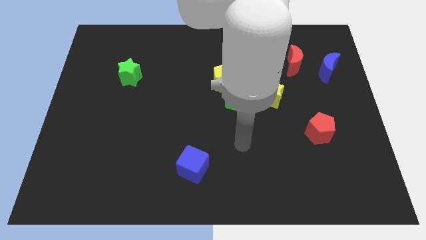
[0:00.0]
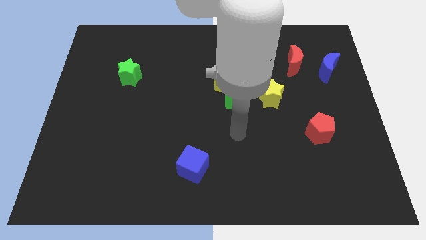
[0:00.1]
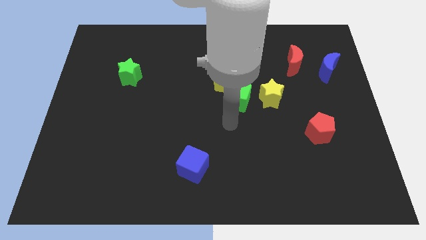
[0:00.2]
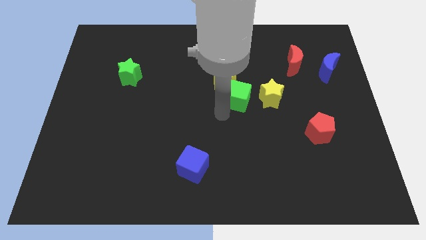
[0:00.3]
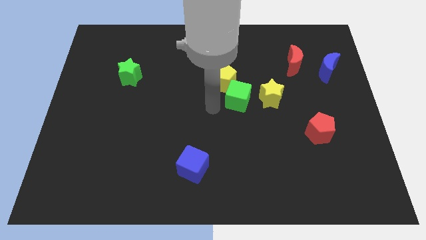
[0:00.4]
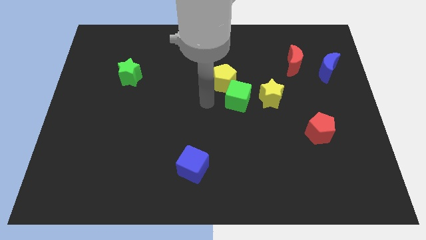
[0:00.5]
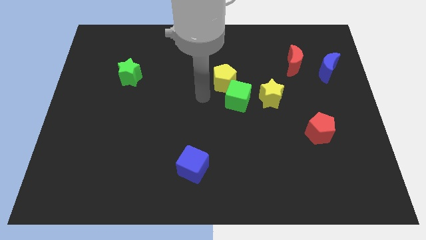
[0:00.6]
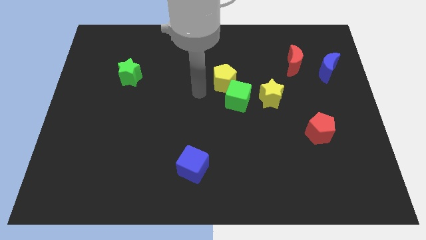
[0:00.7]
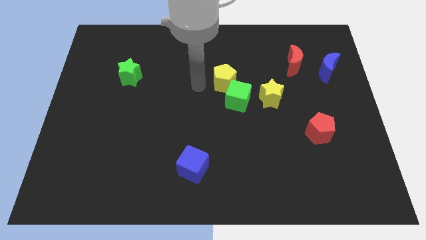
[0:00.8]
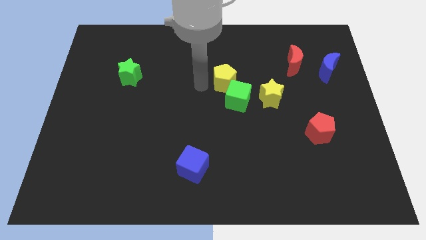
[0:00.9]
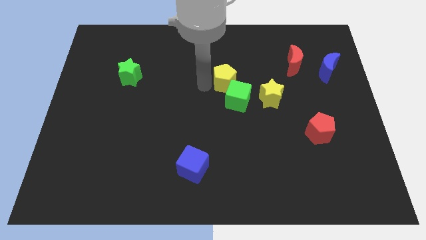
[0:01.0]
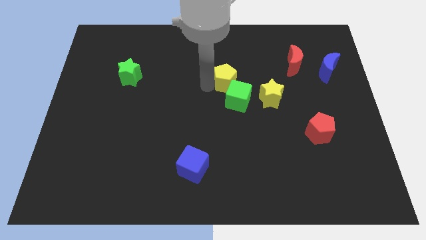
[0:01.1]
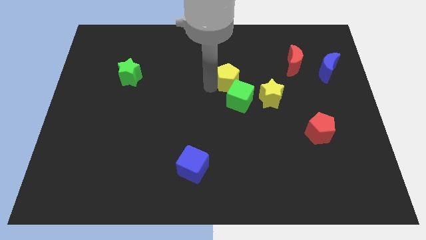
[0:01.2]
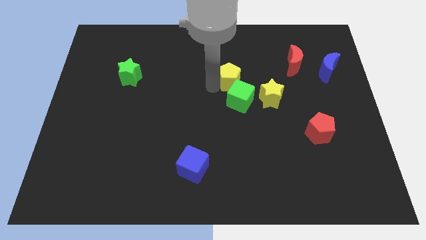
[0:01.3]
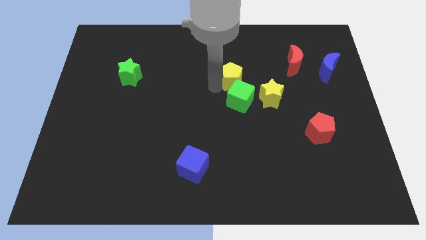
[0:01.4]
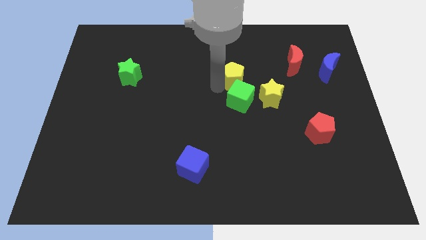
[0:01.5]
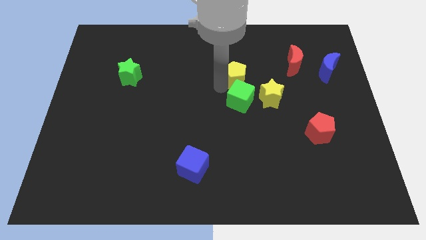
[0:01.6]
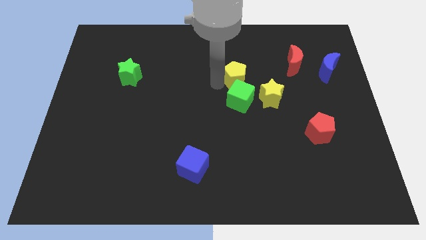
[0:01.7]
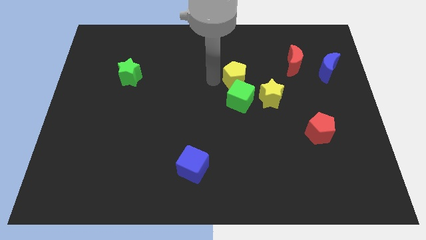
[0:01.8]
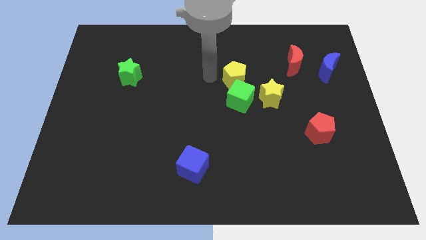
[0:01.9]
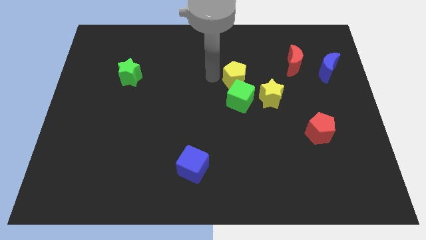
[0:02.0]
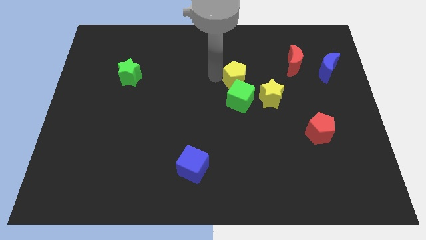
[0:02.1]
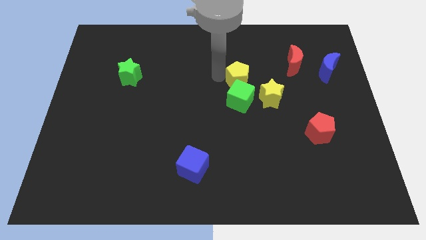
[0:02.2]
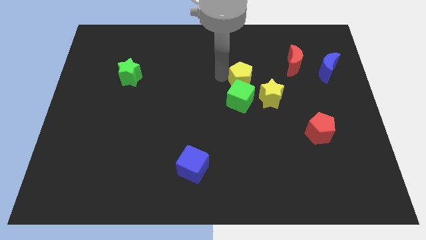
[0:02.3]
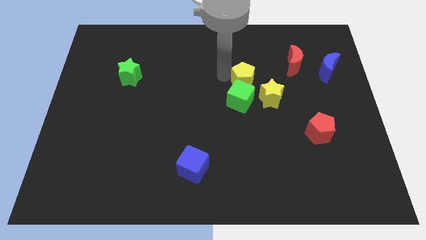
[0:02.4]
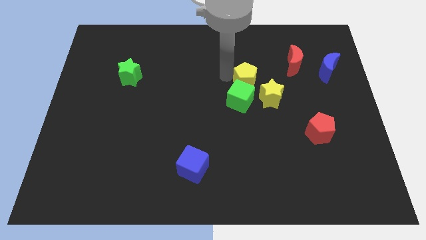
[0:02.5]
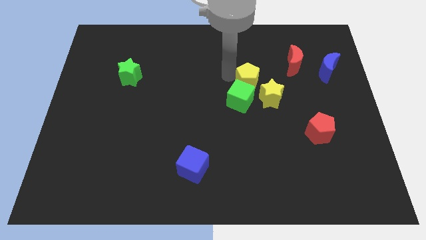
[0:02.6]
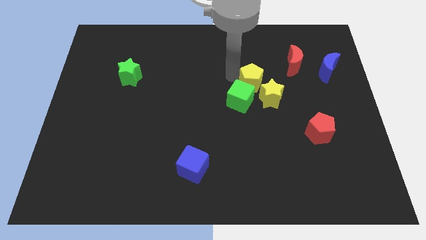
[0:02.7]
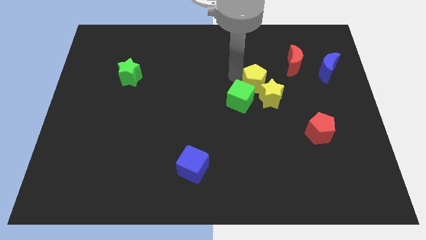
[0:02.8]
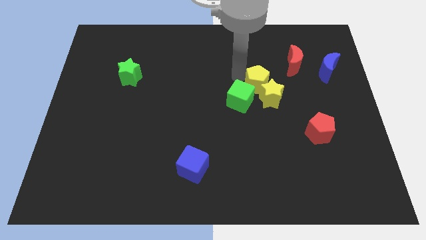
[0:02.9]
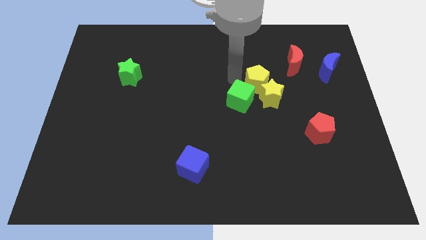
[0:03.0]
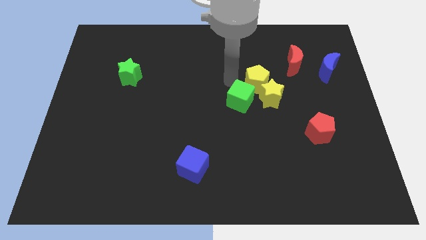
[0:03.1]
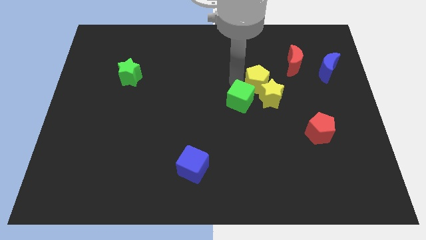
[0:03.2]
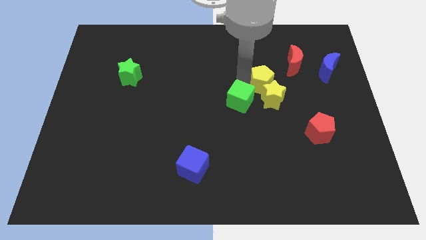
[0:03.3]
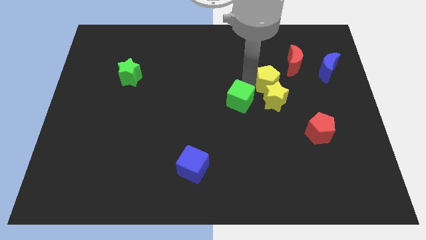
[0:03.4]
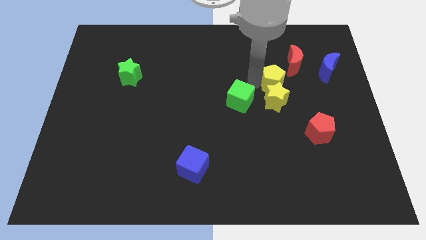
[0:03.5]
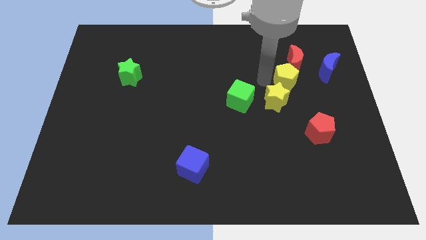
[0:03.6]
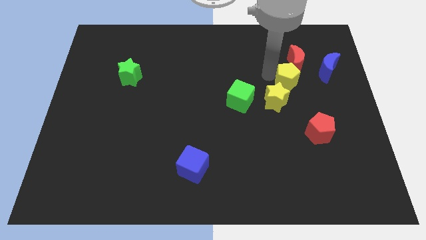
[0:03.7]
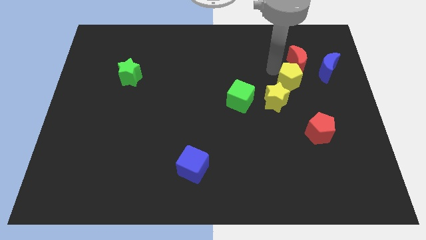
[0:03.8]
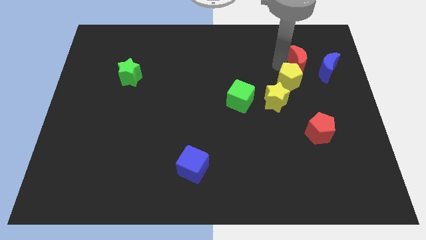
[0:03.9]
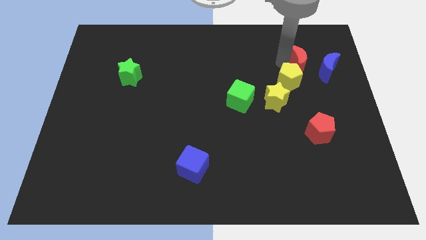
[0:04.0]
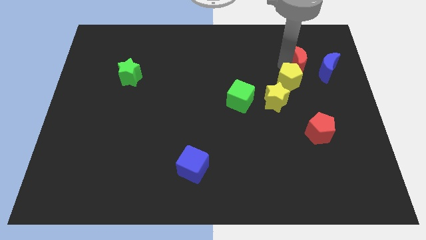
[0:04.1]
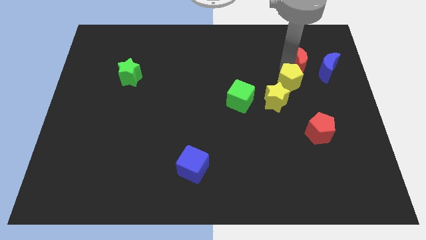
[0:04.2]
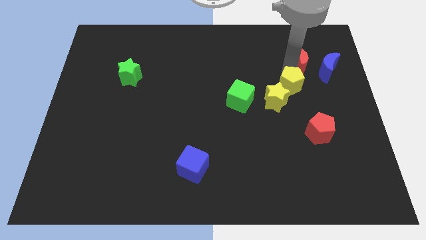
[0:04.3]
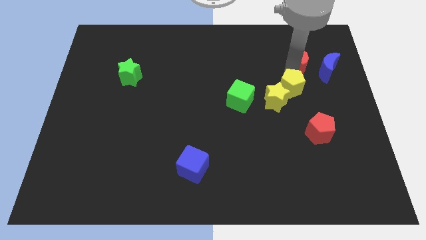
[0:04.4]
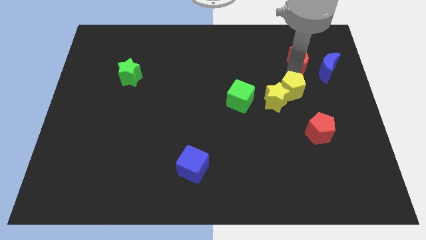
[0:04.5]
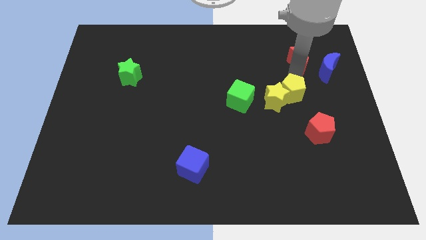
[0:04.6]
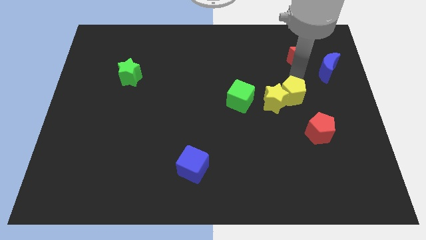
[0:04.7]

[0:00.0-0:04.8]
push the yellow pentagon to the bottom right of the yellow star

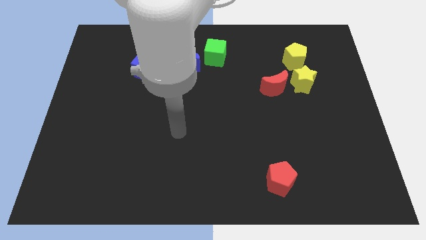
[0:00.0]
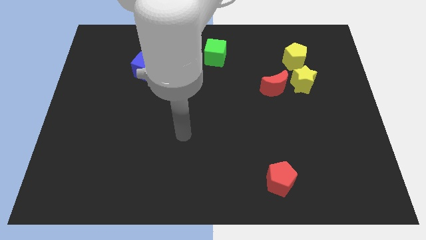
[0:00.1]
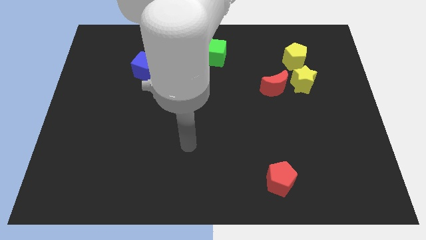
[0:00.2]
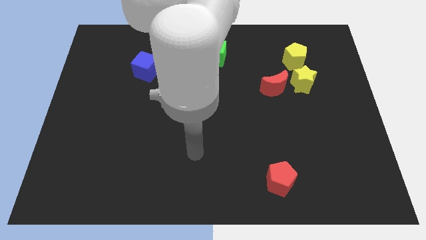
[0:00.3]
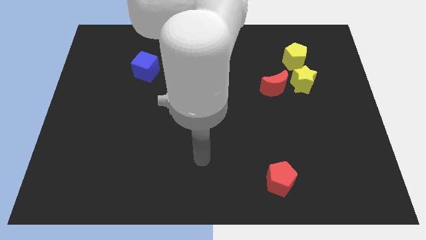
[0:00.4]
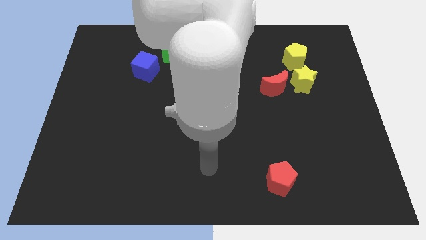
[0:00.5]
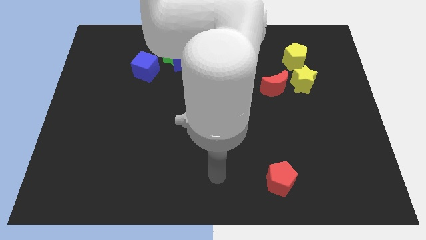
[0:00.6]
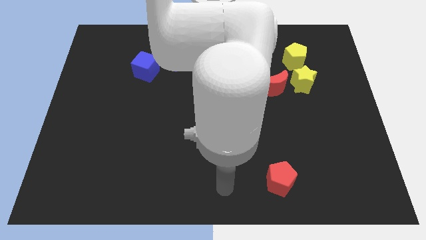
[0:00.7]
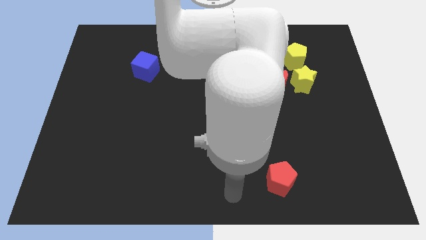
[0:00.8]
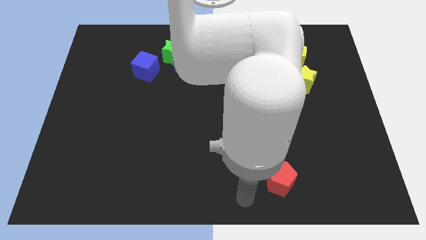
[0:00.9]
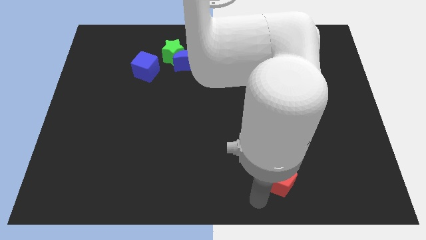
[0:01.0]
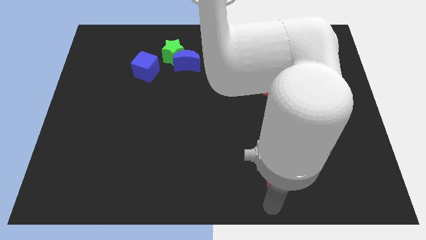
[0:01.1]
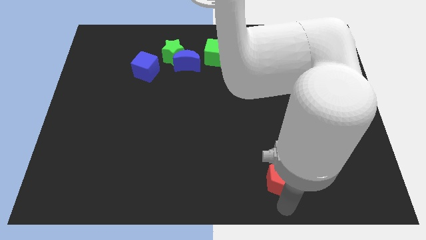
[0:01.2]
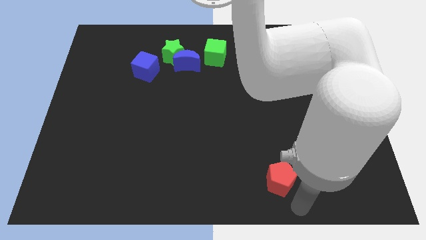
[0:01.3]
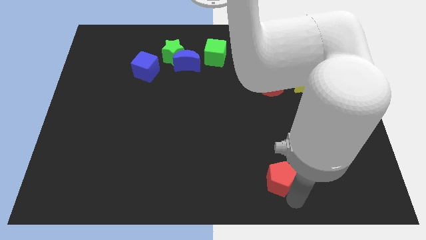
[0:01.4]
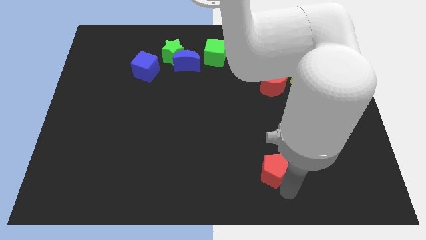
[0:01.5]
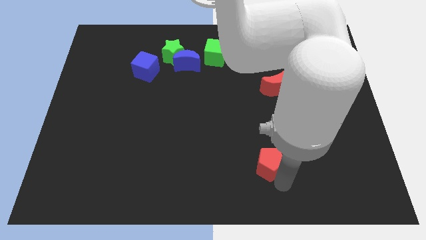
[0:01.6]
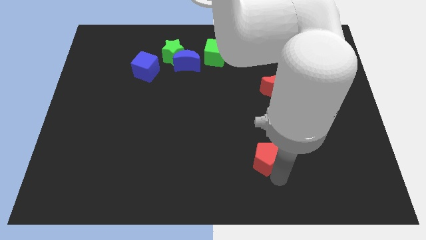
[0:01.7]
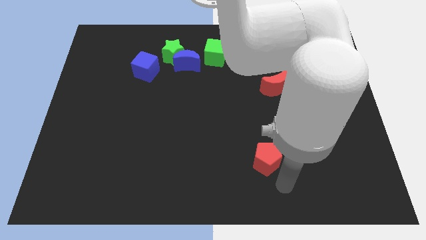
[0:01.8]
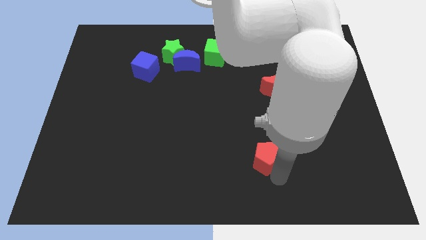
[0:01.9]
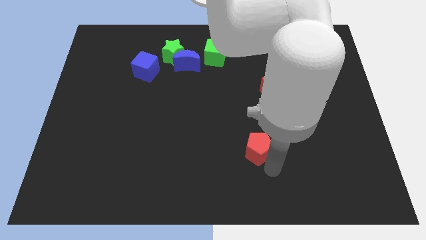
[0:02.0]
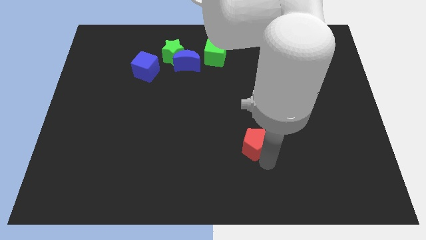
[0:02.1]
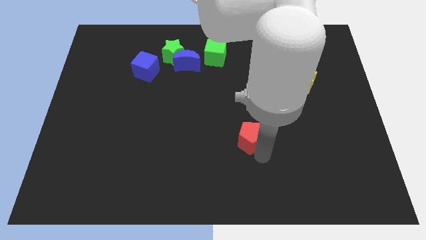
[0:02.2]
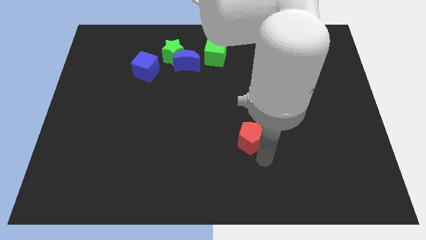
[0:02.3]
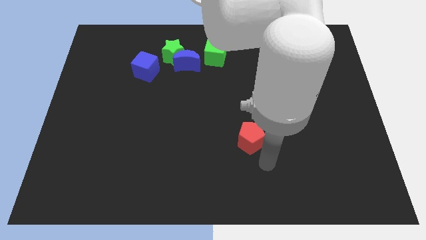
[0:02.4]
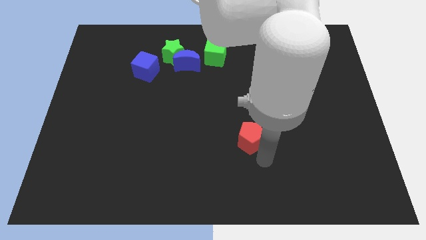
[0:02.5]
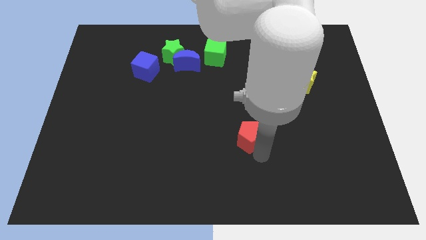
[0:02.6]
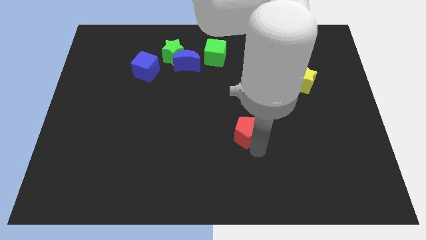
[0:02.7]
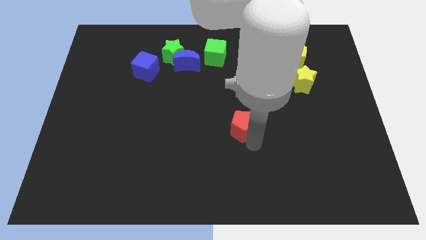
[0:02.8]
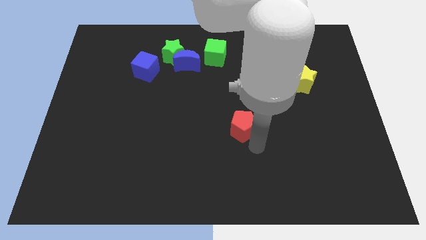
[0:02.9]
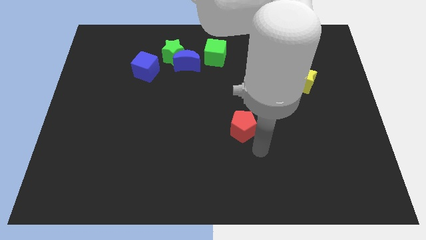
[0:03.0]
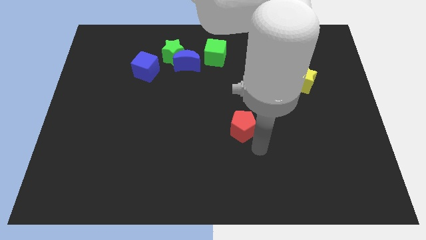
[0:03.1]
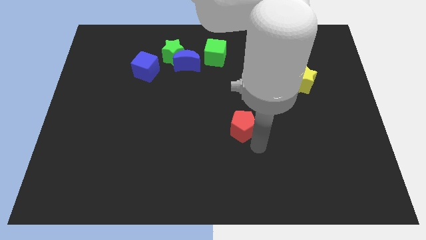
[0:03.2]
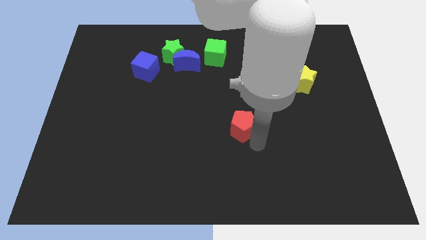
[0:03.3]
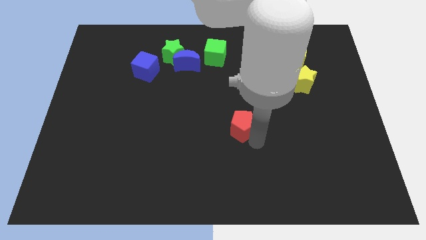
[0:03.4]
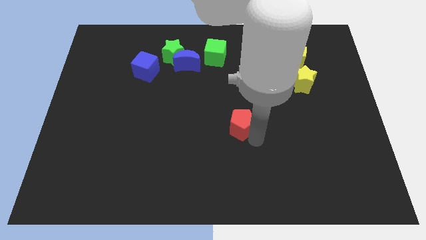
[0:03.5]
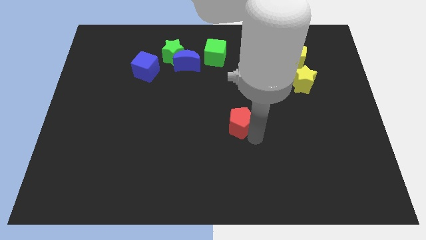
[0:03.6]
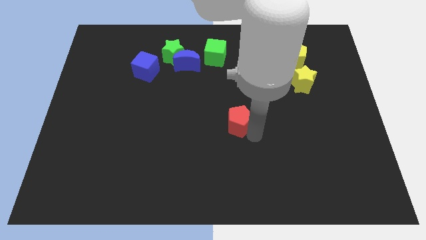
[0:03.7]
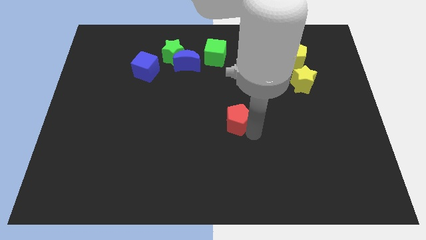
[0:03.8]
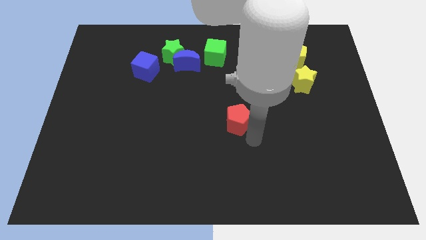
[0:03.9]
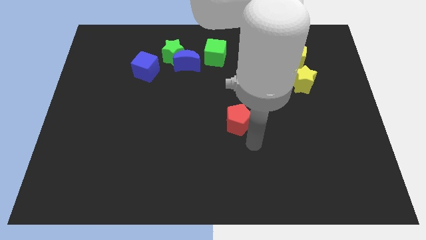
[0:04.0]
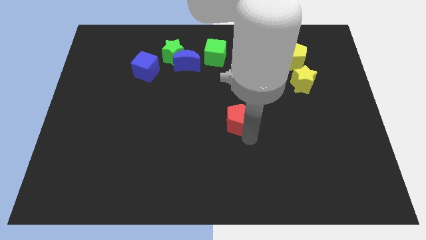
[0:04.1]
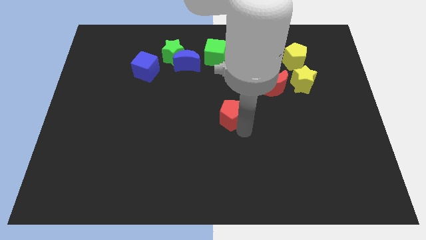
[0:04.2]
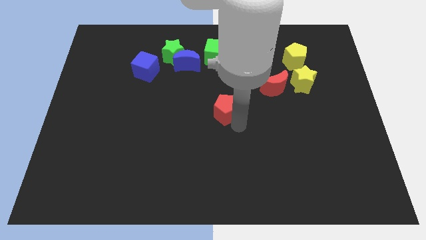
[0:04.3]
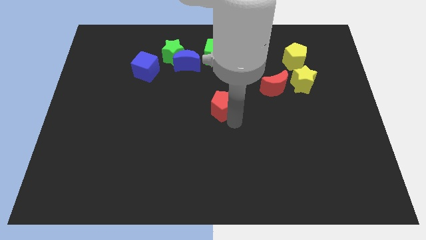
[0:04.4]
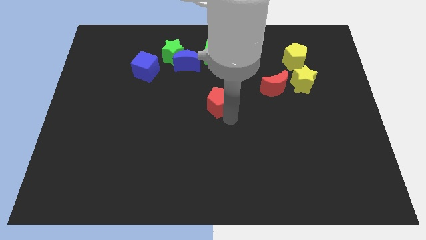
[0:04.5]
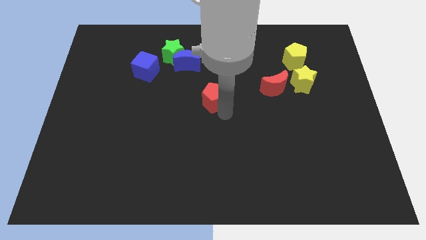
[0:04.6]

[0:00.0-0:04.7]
slide the red pentagon to the bottom of the green cube
